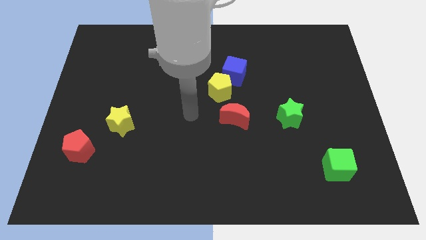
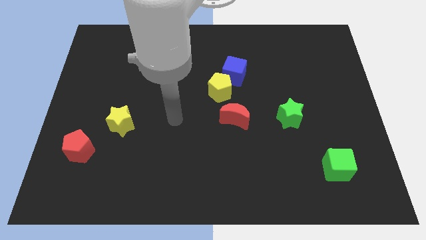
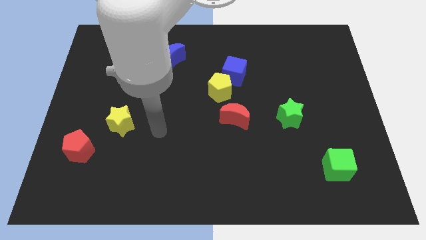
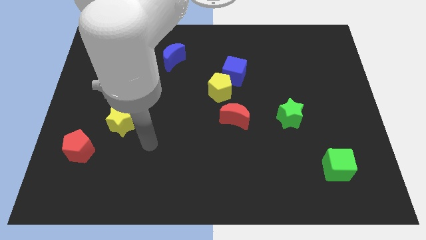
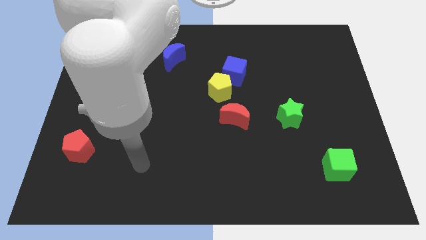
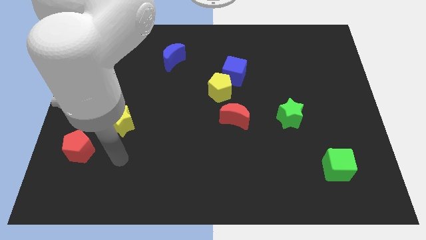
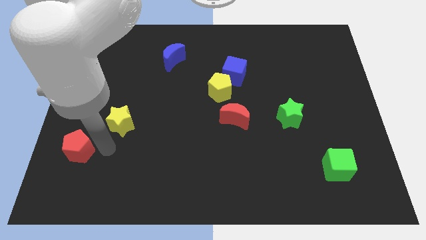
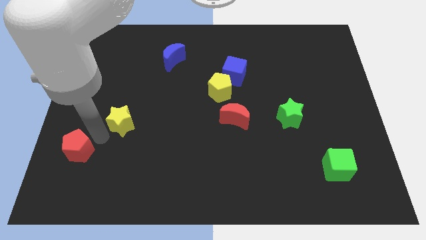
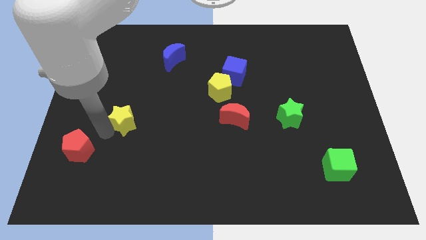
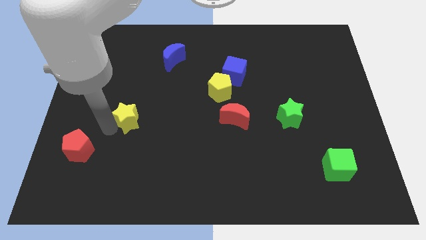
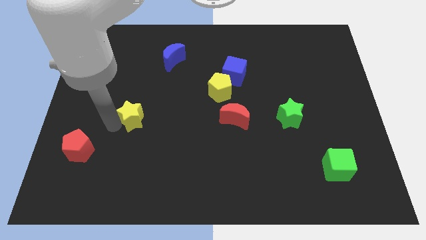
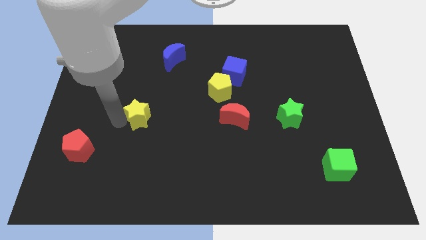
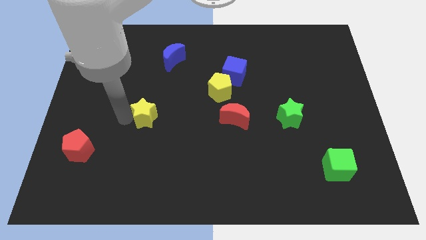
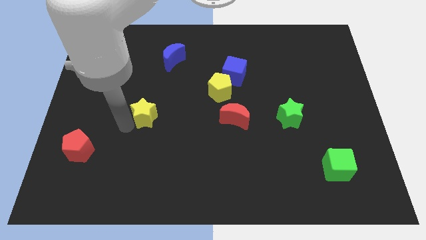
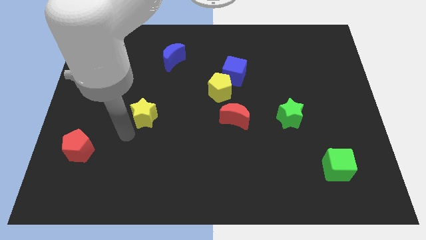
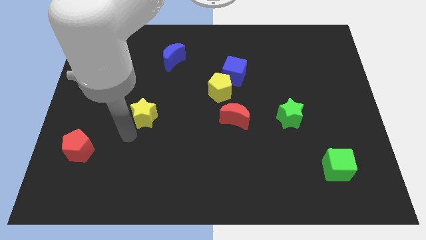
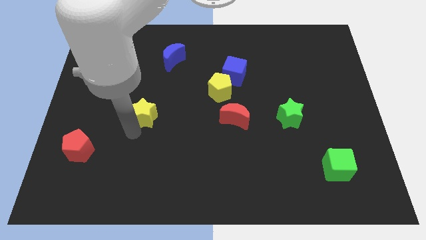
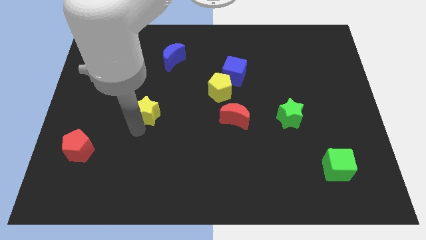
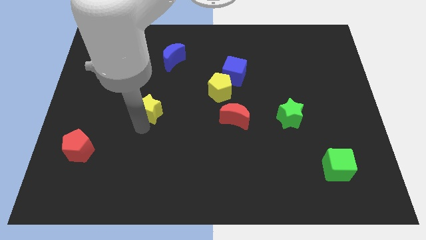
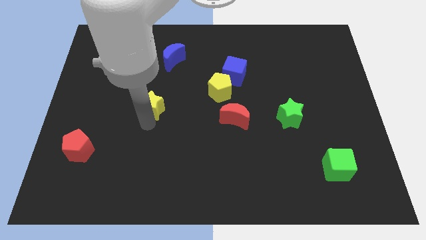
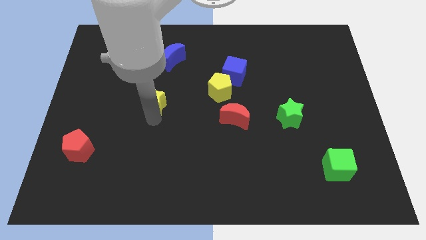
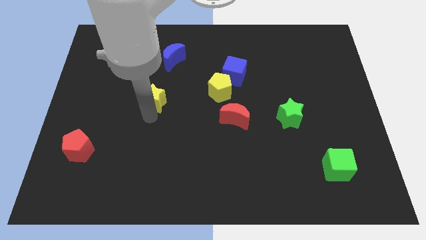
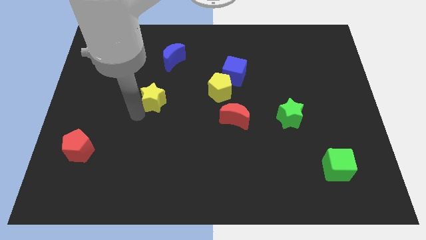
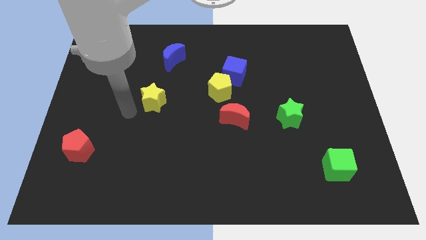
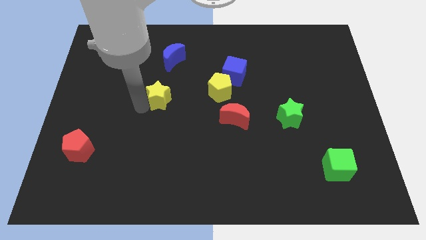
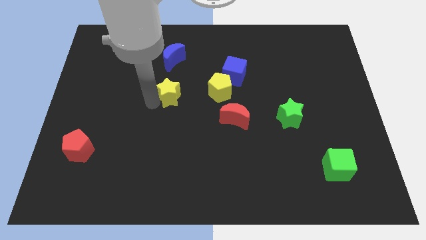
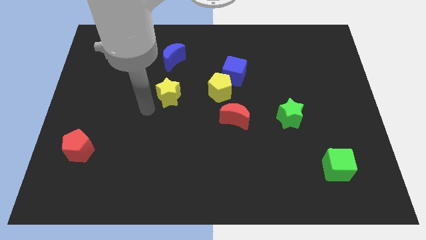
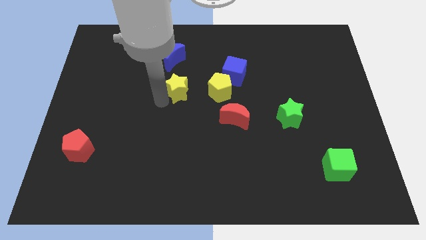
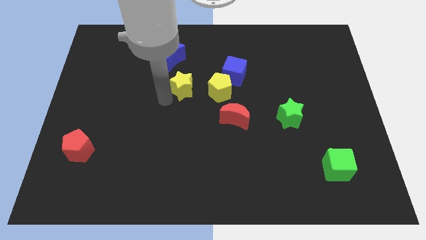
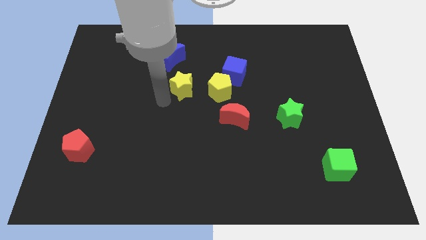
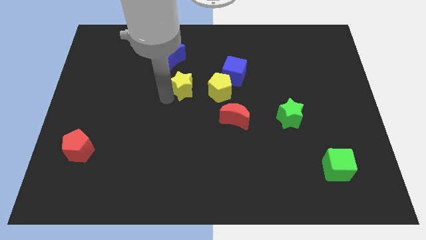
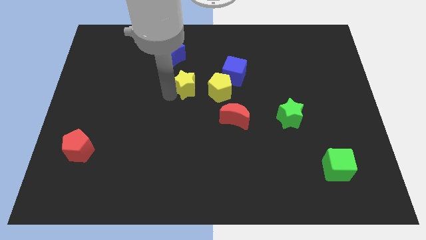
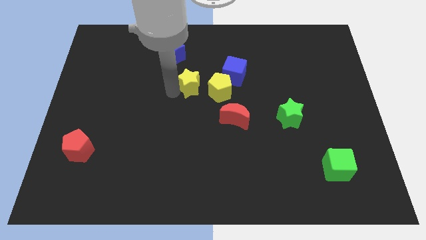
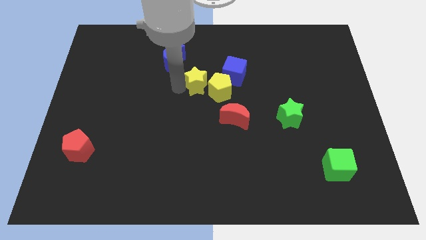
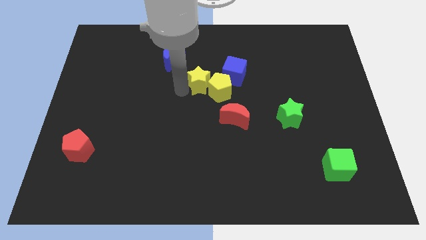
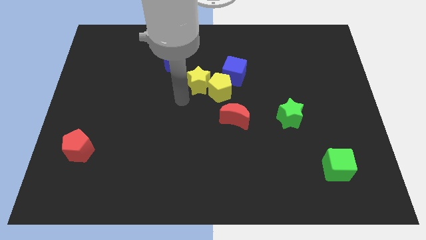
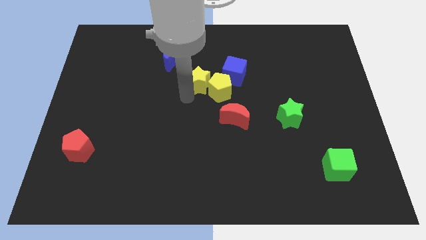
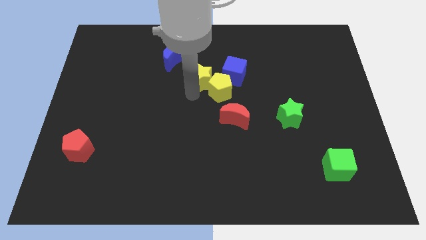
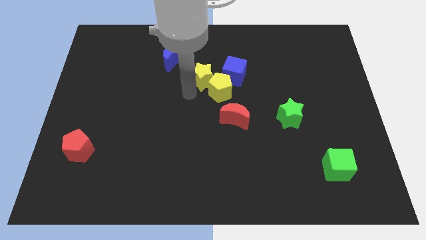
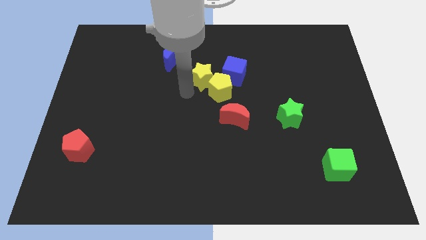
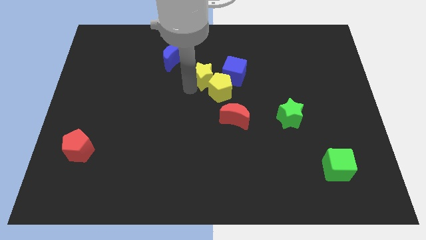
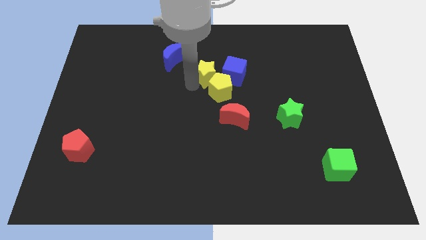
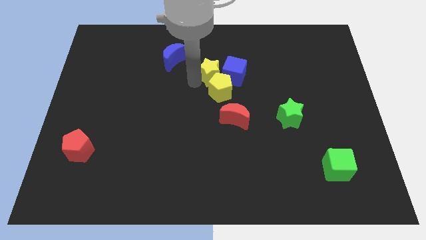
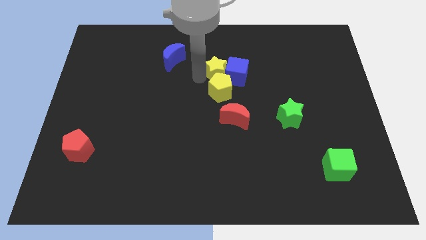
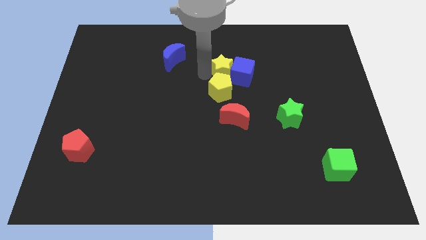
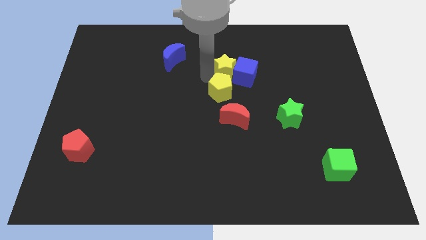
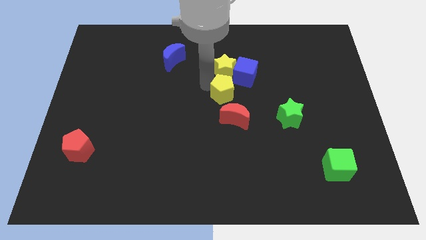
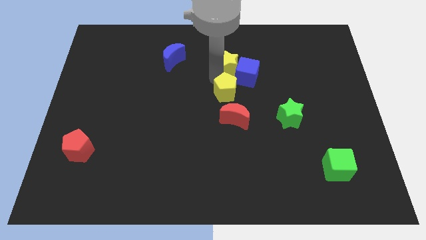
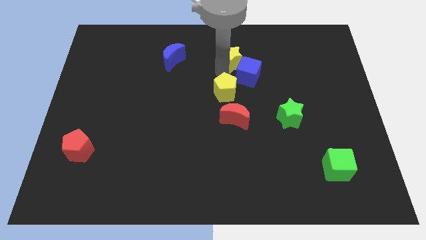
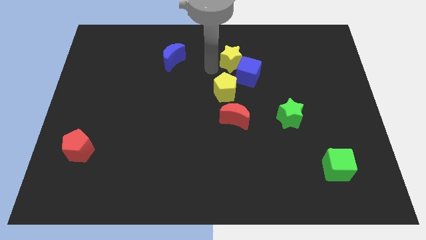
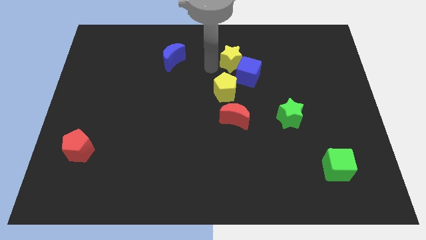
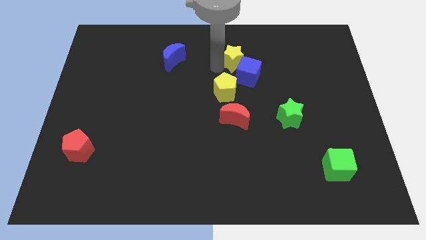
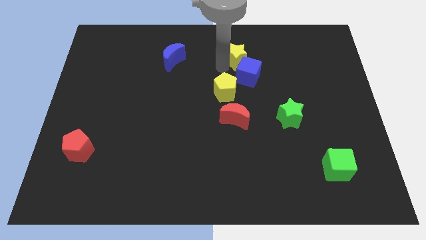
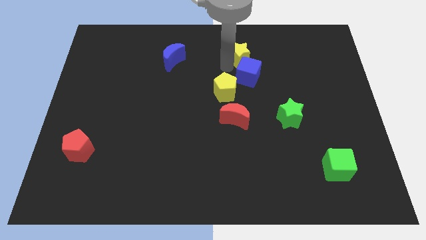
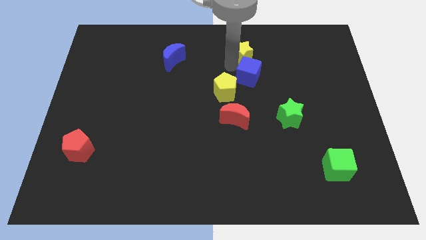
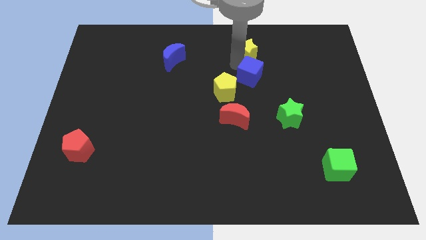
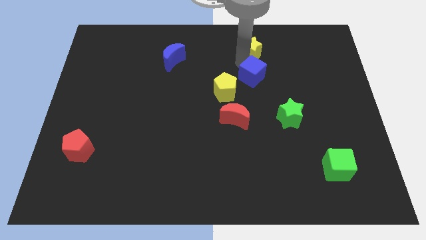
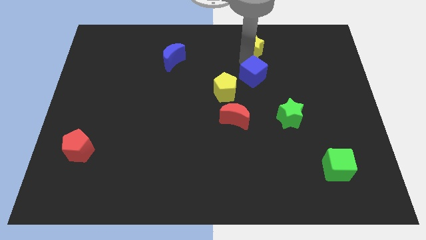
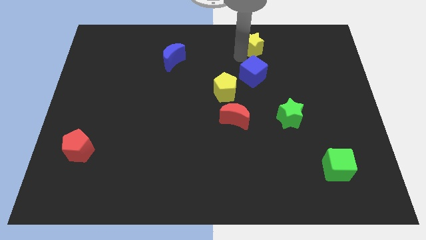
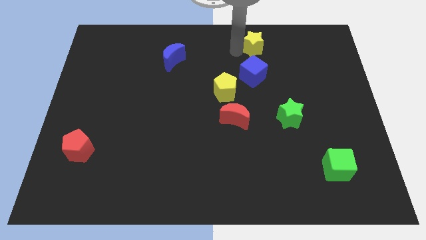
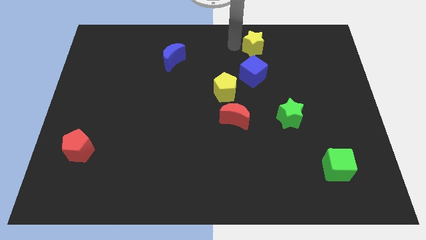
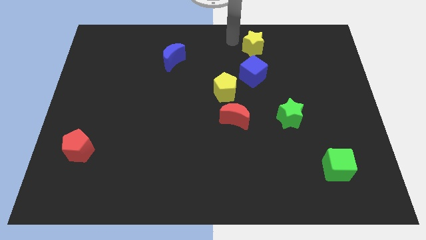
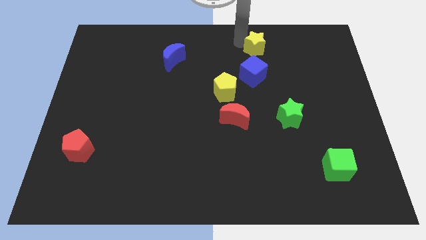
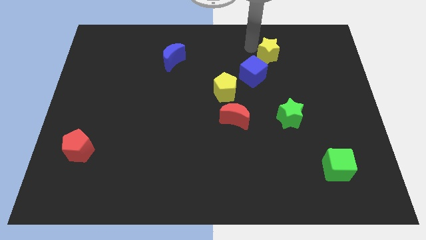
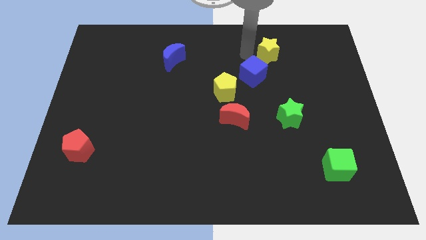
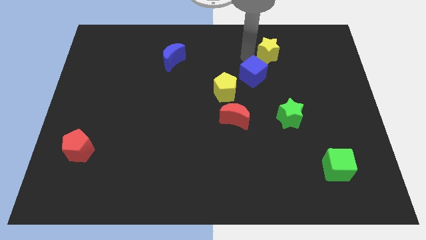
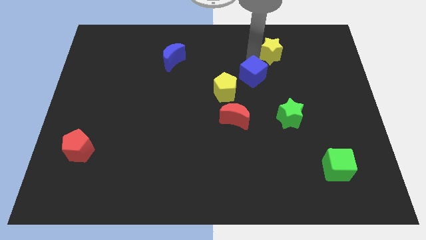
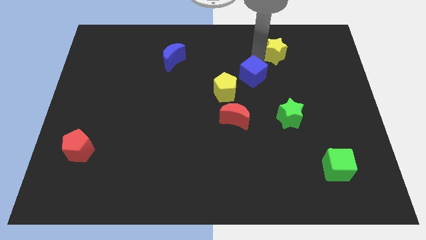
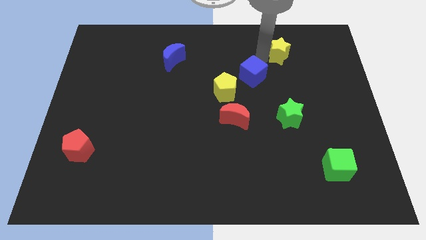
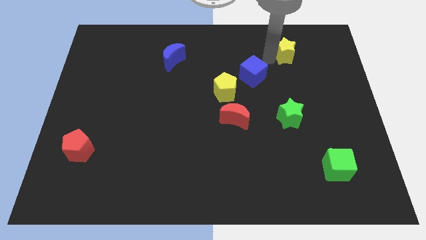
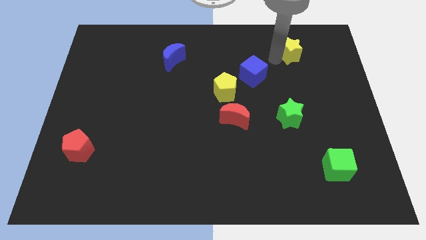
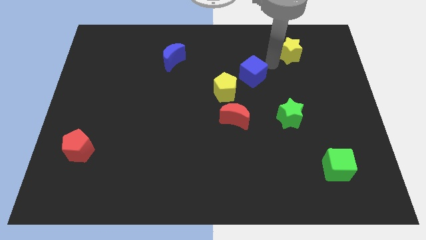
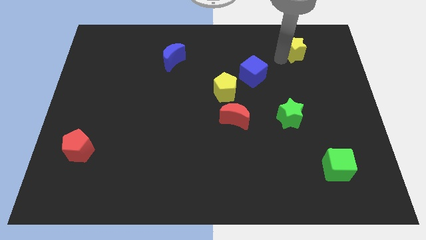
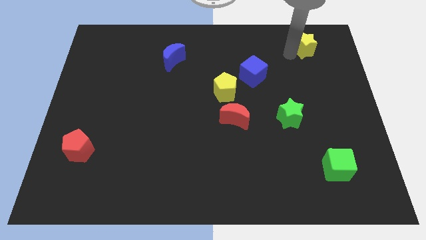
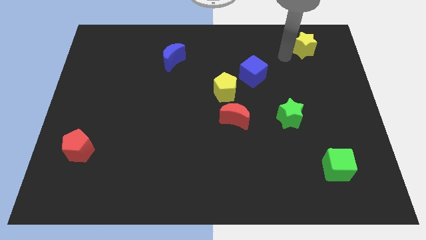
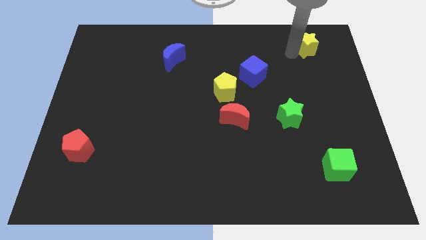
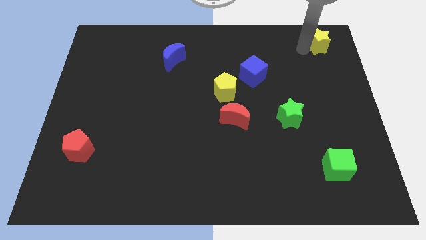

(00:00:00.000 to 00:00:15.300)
put the yellow star to the top right corner
